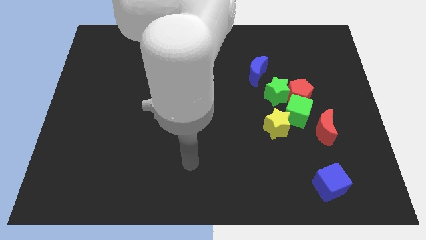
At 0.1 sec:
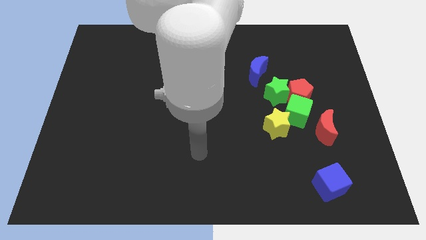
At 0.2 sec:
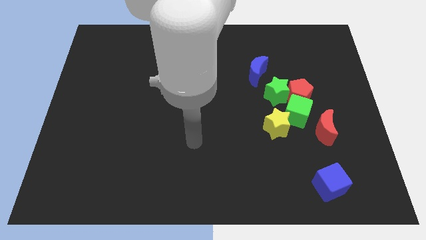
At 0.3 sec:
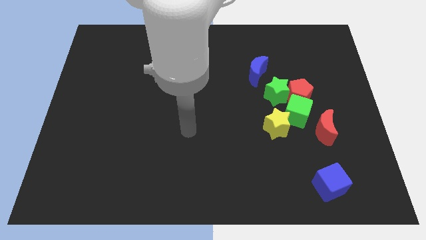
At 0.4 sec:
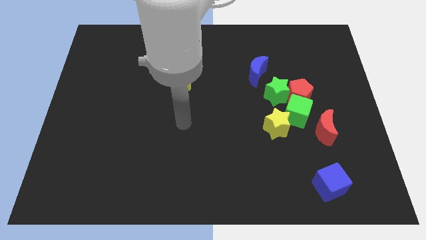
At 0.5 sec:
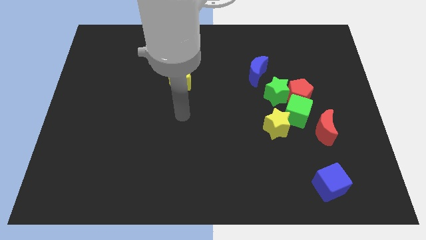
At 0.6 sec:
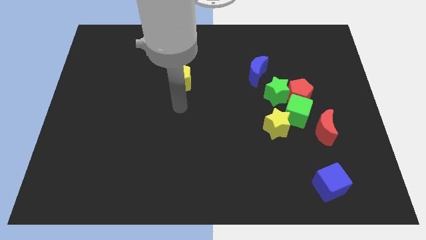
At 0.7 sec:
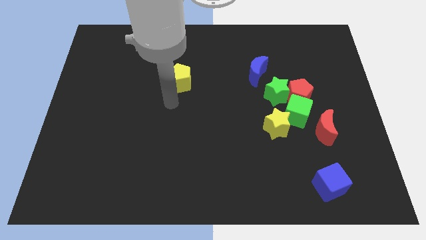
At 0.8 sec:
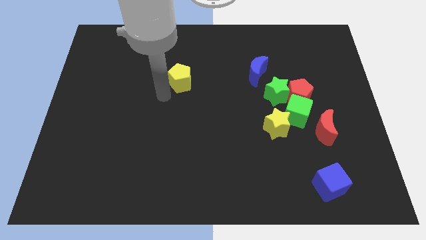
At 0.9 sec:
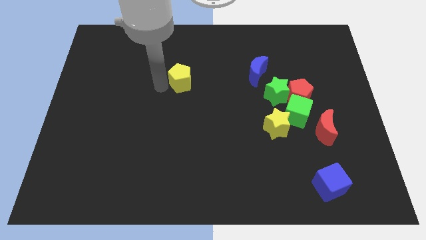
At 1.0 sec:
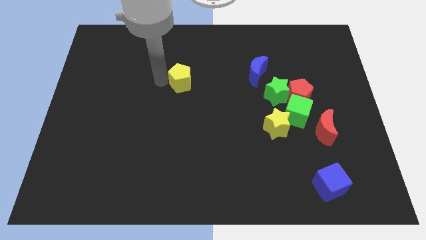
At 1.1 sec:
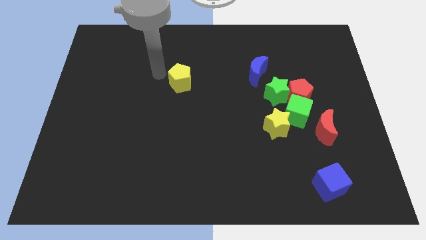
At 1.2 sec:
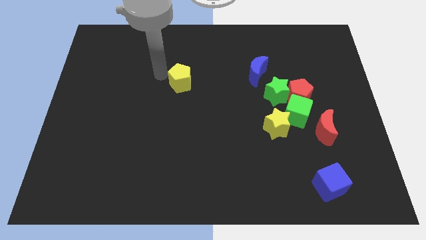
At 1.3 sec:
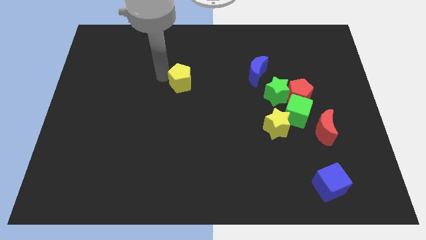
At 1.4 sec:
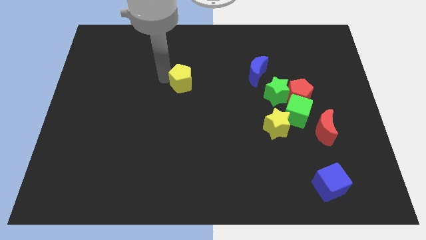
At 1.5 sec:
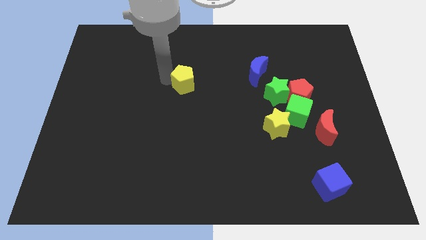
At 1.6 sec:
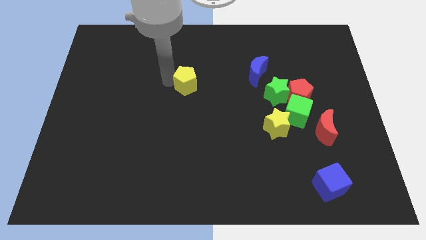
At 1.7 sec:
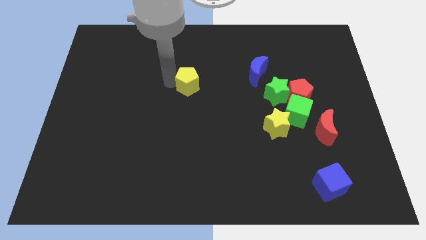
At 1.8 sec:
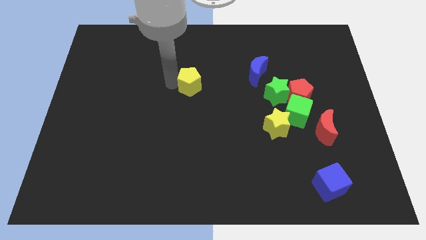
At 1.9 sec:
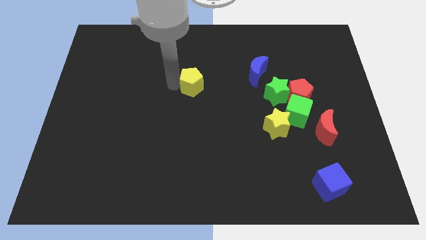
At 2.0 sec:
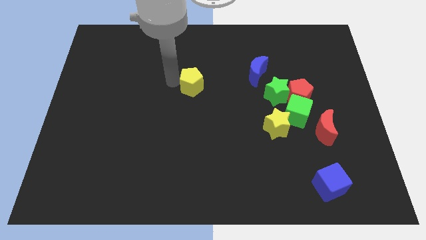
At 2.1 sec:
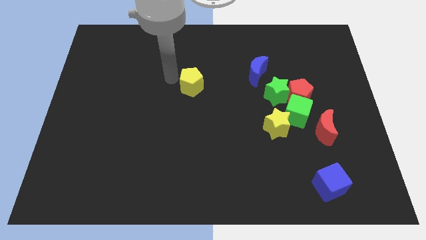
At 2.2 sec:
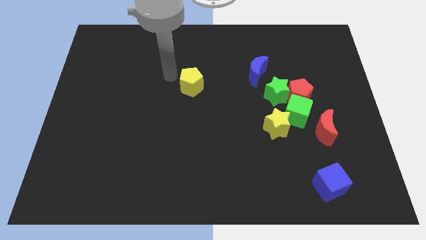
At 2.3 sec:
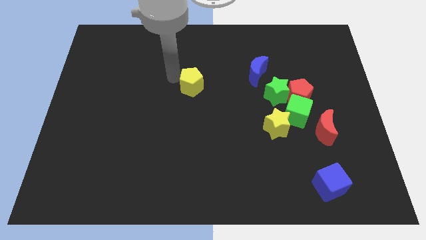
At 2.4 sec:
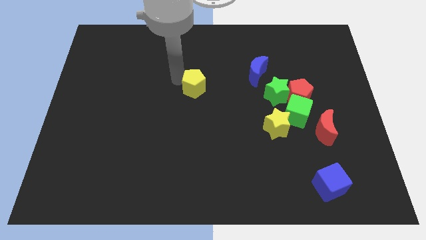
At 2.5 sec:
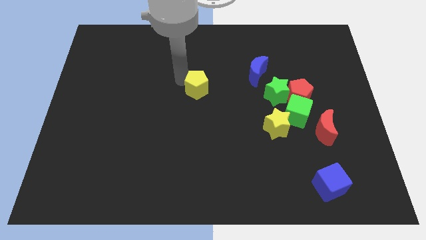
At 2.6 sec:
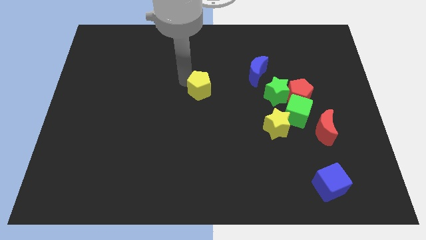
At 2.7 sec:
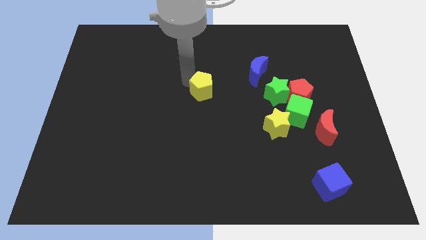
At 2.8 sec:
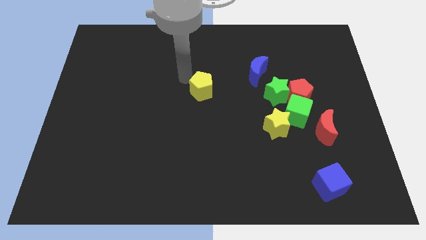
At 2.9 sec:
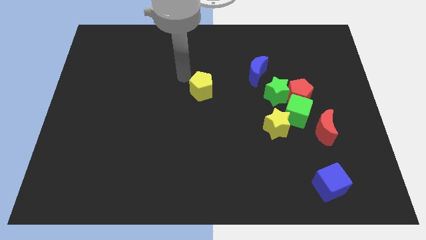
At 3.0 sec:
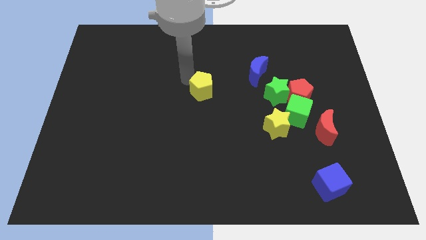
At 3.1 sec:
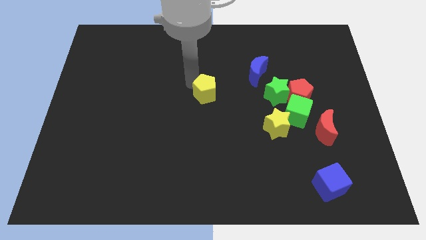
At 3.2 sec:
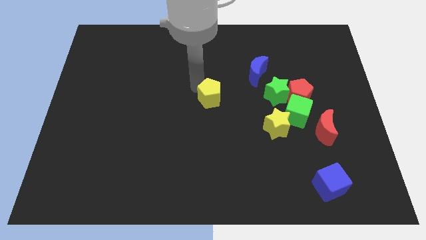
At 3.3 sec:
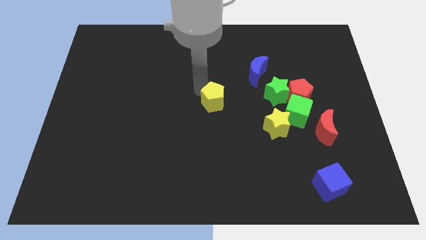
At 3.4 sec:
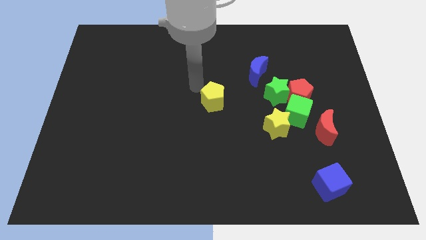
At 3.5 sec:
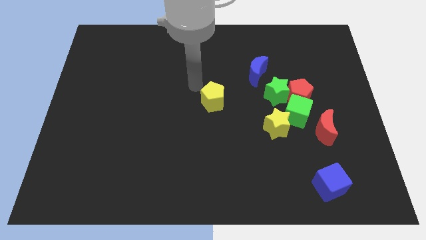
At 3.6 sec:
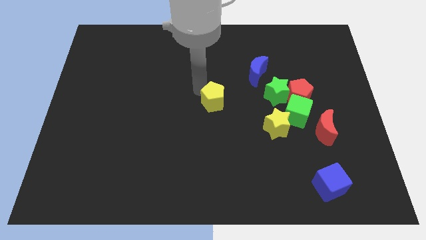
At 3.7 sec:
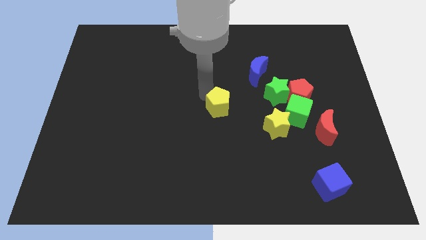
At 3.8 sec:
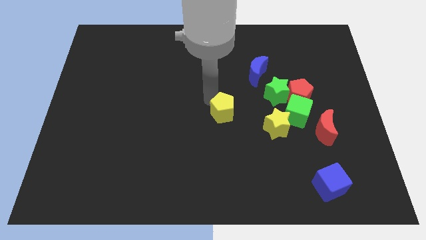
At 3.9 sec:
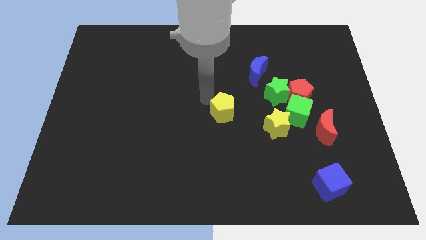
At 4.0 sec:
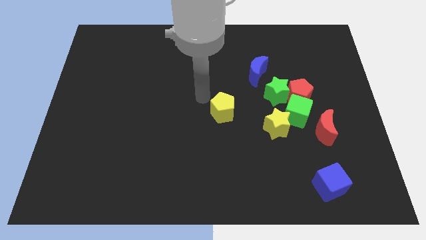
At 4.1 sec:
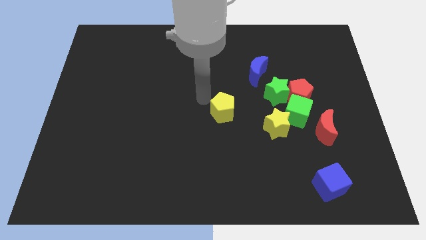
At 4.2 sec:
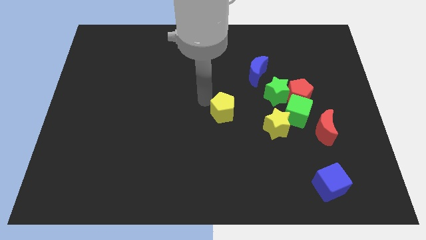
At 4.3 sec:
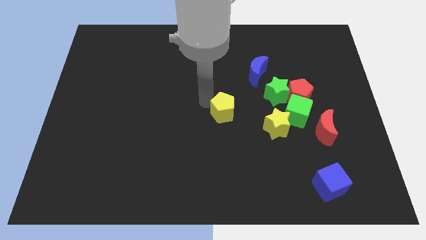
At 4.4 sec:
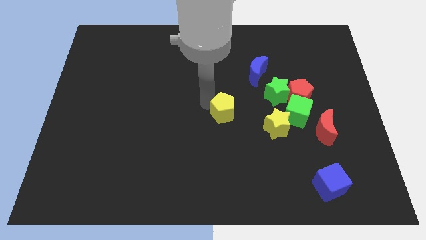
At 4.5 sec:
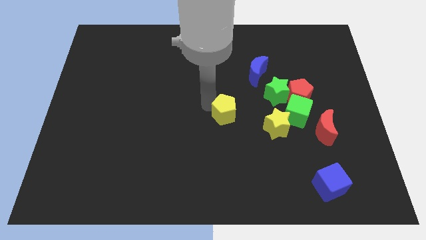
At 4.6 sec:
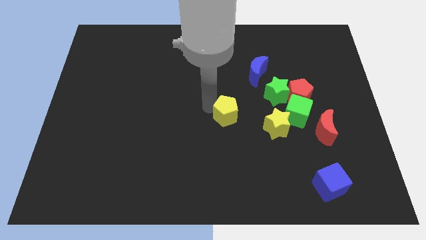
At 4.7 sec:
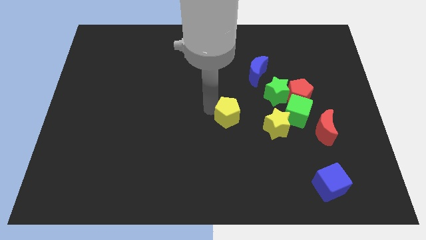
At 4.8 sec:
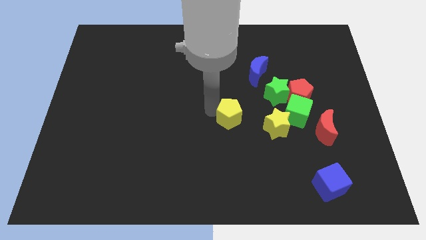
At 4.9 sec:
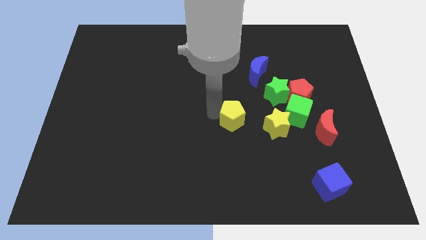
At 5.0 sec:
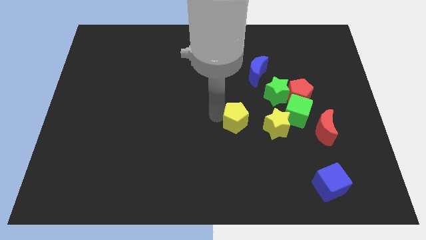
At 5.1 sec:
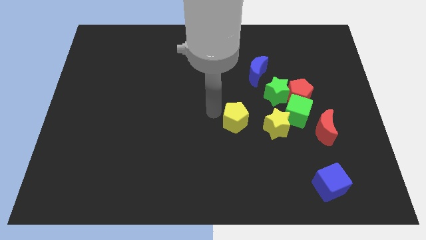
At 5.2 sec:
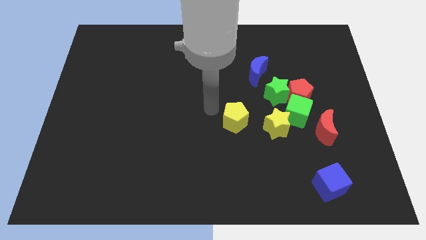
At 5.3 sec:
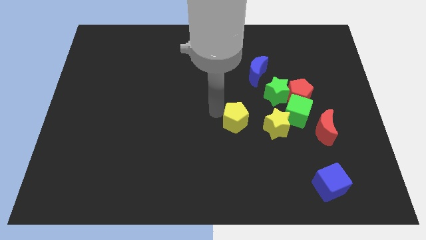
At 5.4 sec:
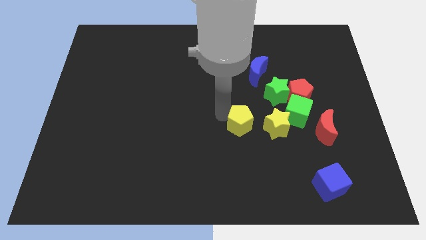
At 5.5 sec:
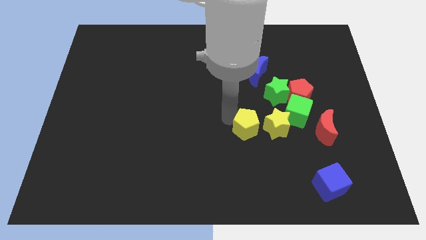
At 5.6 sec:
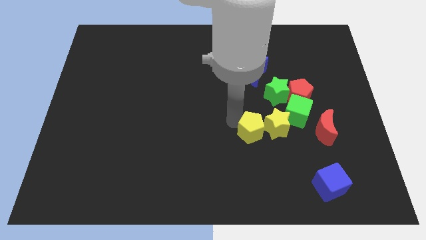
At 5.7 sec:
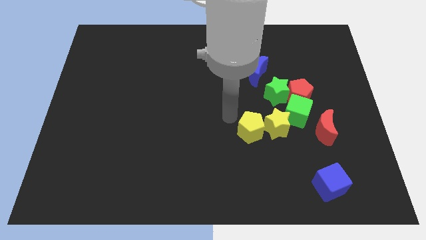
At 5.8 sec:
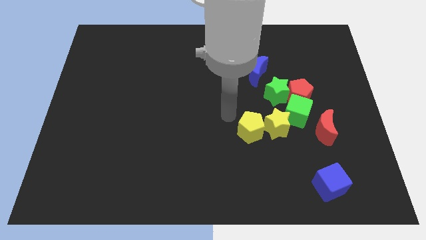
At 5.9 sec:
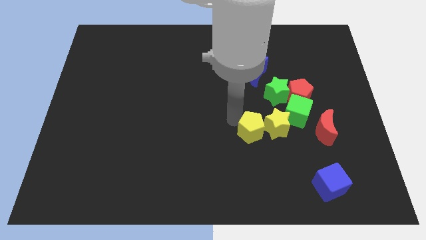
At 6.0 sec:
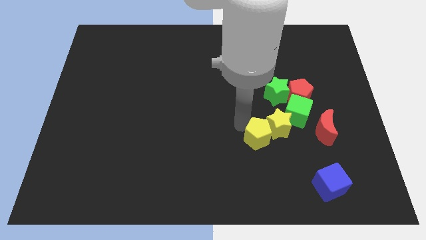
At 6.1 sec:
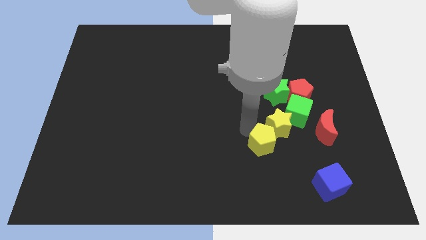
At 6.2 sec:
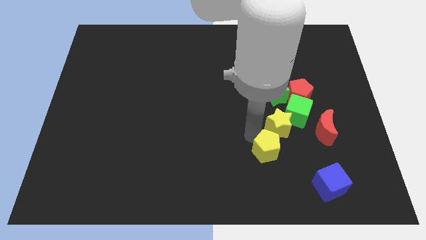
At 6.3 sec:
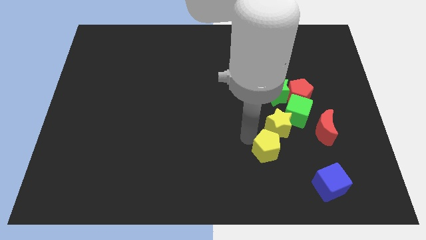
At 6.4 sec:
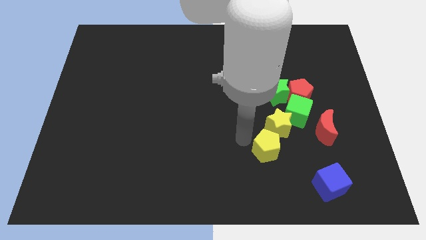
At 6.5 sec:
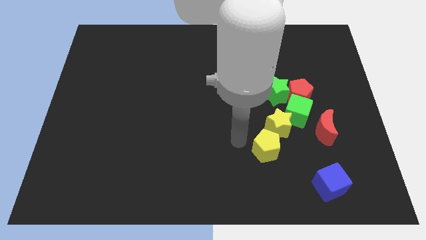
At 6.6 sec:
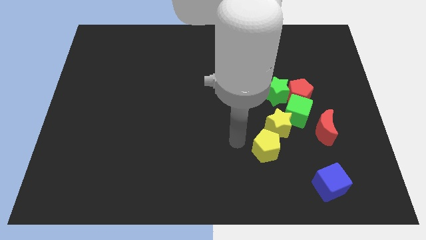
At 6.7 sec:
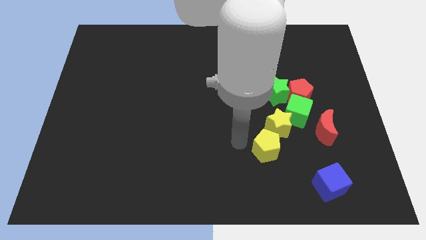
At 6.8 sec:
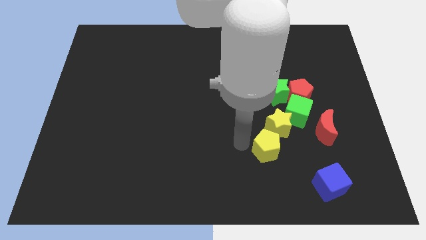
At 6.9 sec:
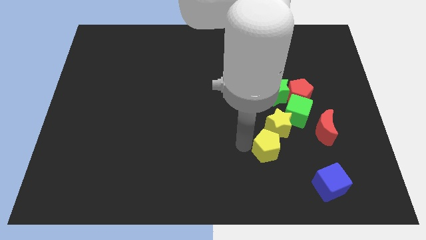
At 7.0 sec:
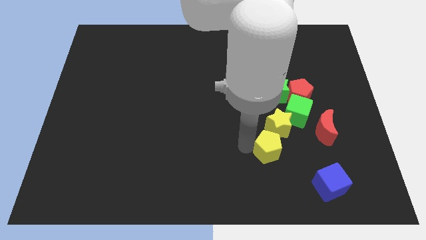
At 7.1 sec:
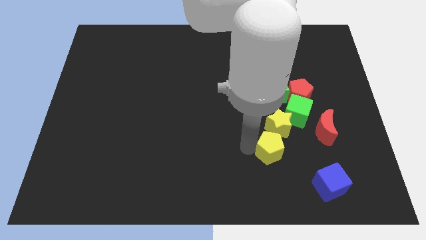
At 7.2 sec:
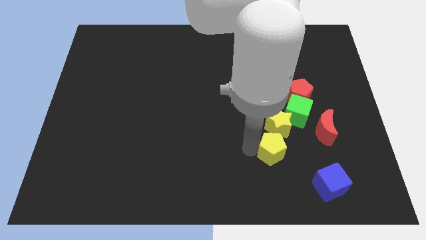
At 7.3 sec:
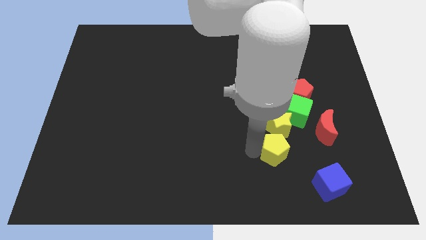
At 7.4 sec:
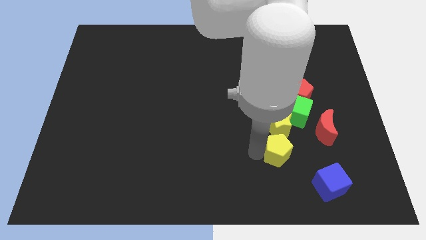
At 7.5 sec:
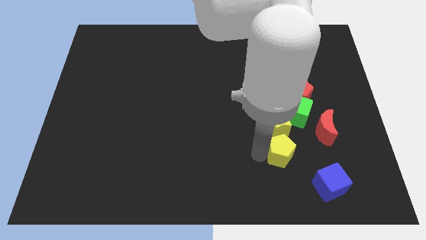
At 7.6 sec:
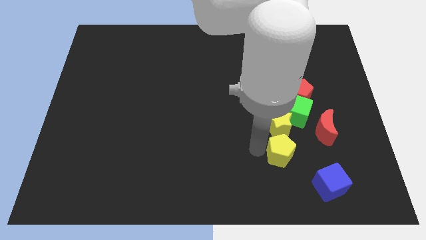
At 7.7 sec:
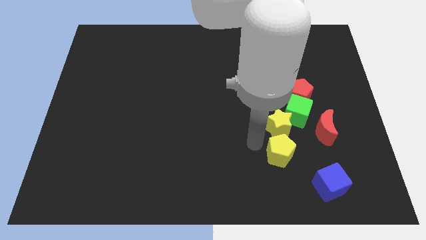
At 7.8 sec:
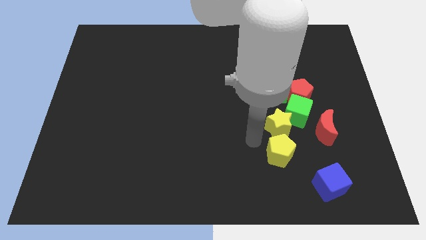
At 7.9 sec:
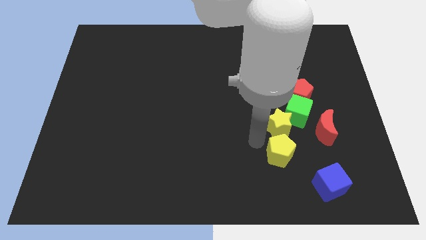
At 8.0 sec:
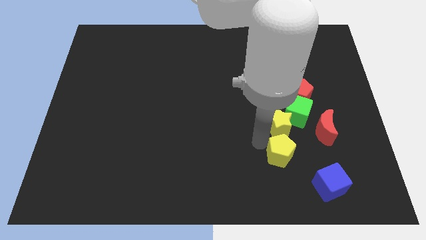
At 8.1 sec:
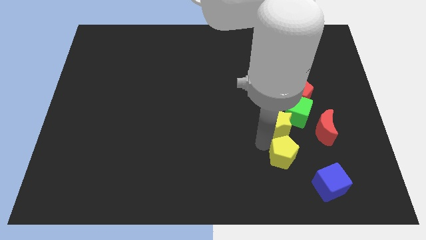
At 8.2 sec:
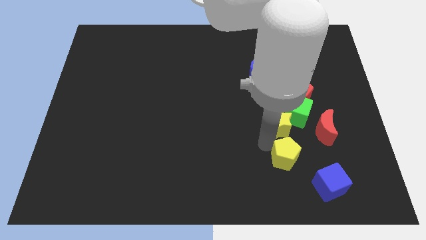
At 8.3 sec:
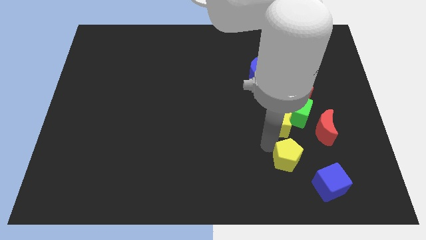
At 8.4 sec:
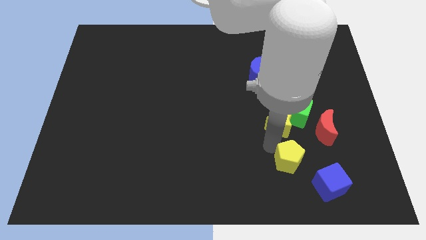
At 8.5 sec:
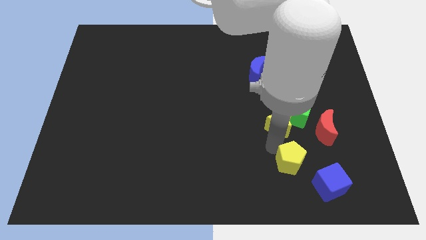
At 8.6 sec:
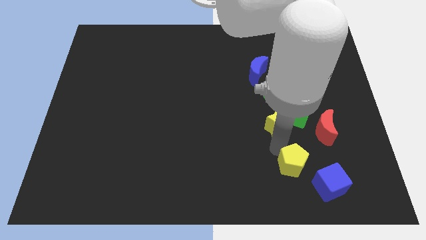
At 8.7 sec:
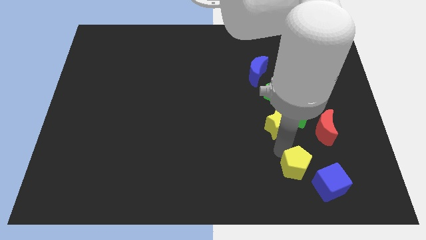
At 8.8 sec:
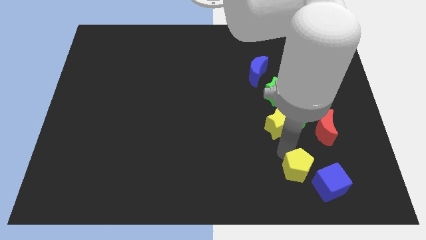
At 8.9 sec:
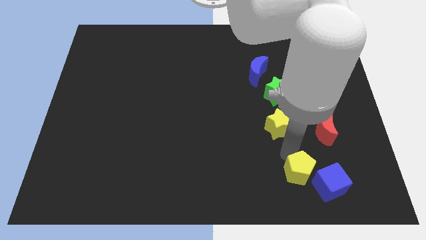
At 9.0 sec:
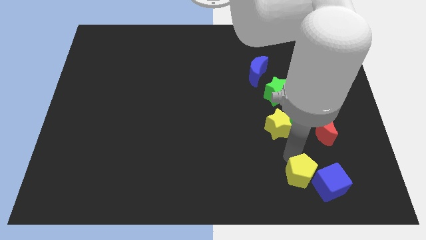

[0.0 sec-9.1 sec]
put the yellow pentagon next to the blue cube
